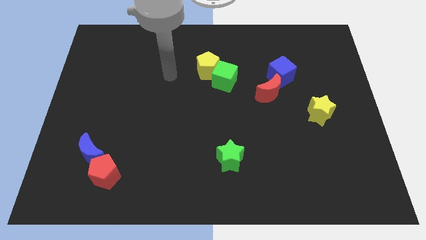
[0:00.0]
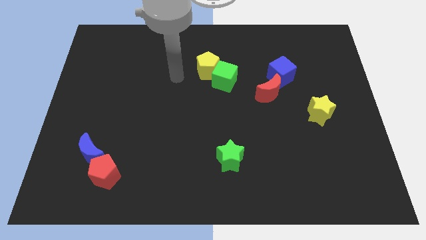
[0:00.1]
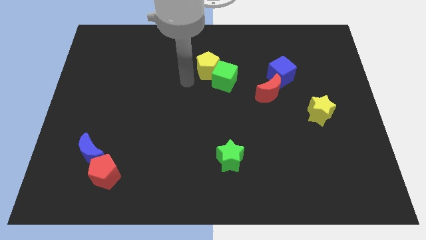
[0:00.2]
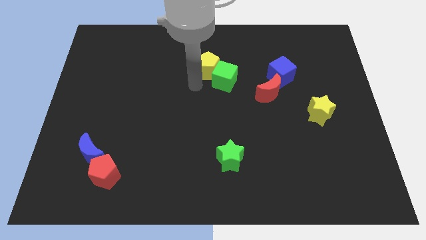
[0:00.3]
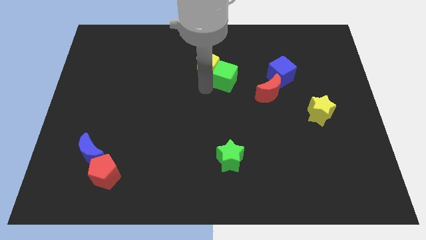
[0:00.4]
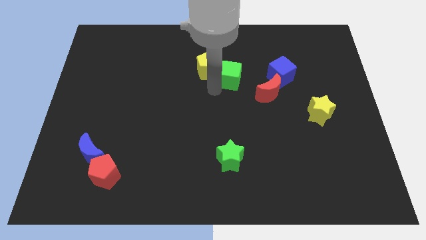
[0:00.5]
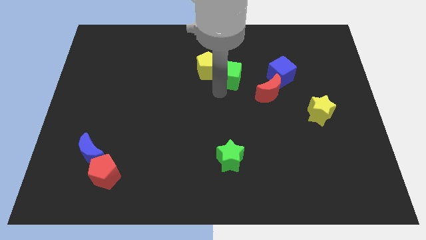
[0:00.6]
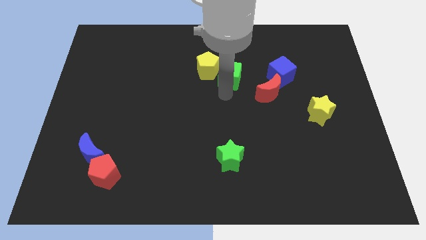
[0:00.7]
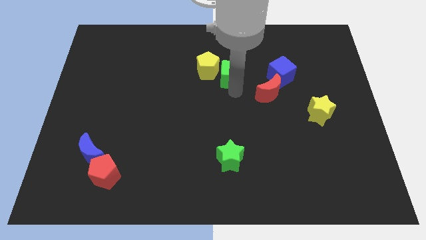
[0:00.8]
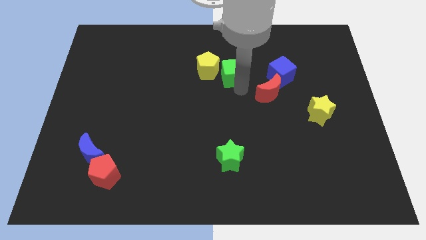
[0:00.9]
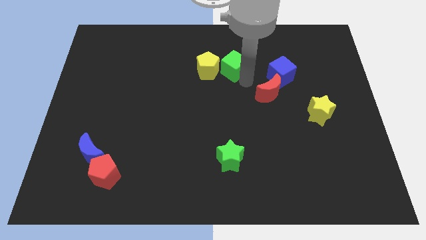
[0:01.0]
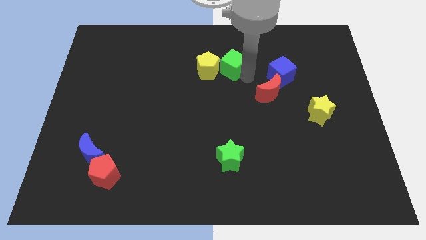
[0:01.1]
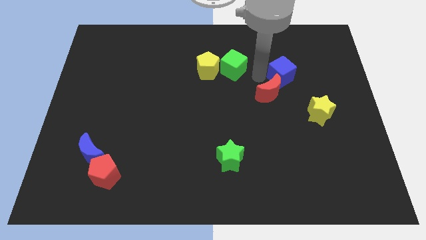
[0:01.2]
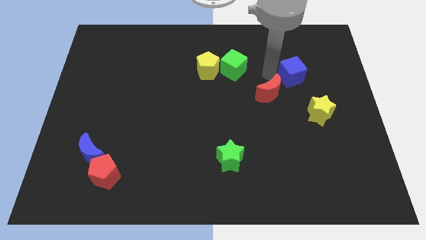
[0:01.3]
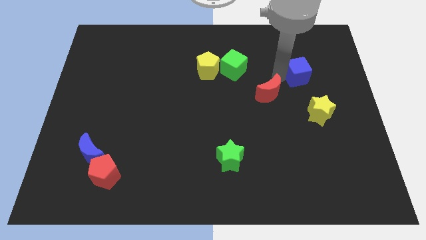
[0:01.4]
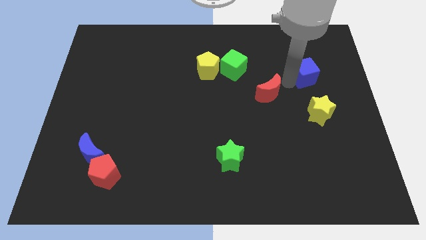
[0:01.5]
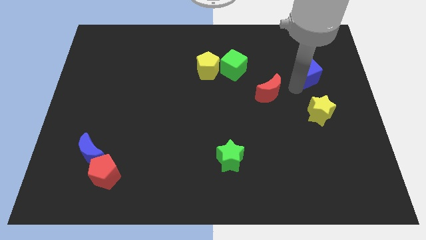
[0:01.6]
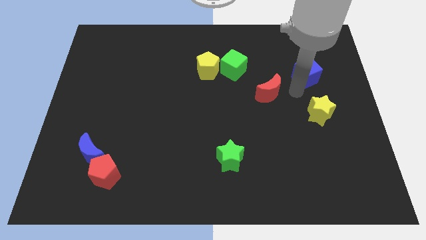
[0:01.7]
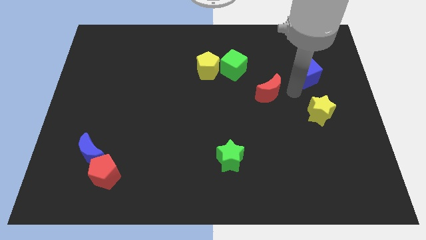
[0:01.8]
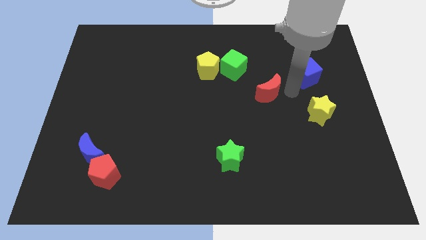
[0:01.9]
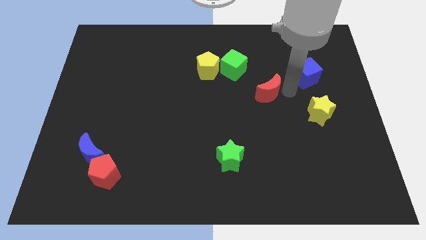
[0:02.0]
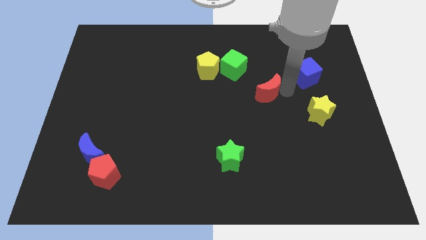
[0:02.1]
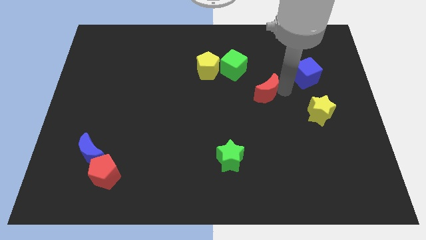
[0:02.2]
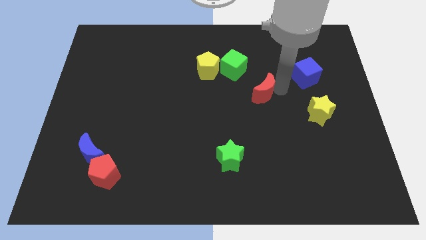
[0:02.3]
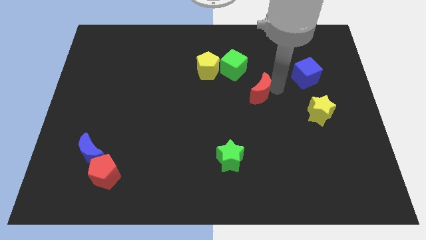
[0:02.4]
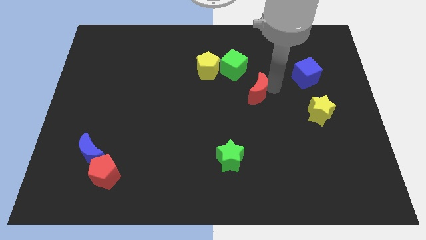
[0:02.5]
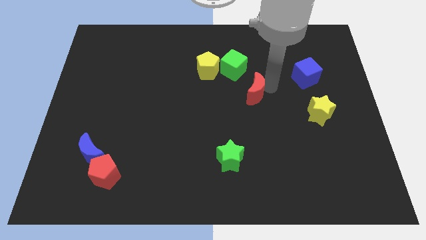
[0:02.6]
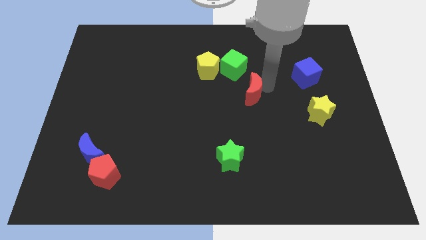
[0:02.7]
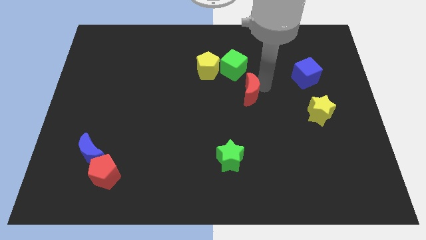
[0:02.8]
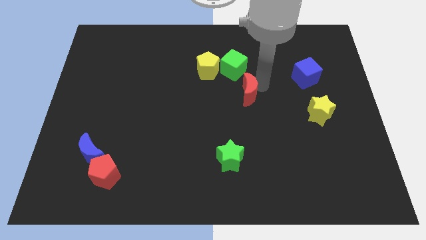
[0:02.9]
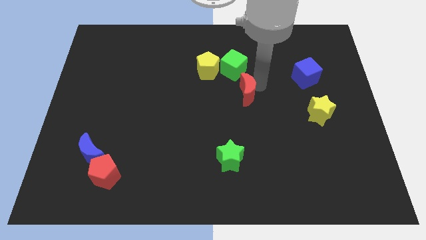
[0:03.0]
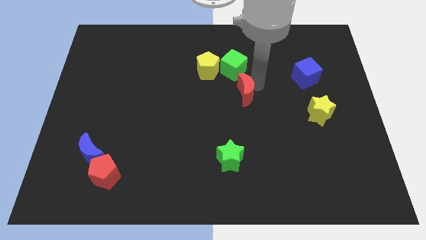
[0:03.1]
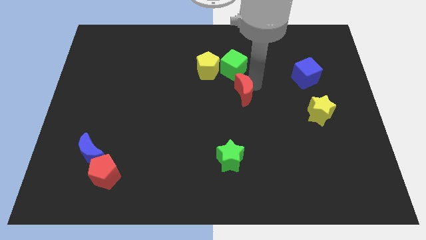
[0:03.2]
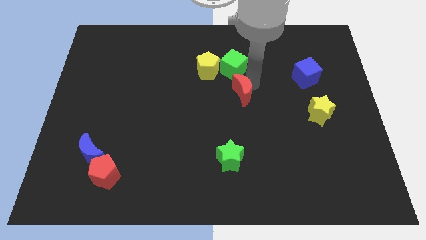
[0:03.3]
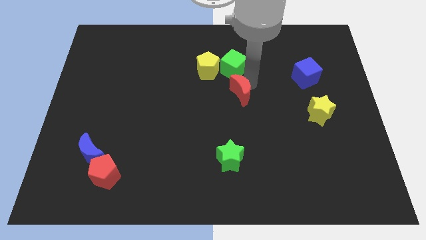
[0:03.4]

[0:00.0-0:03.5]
slightly move the red moon to the left

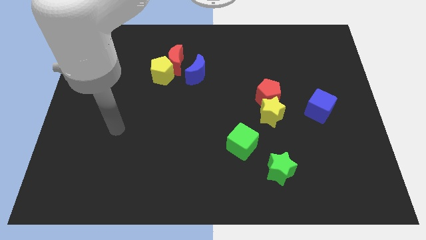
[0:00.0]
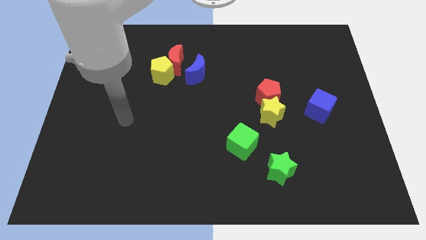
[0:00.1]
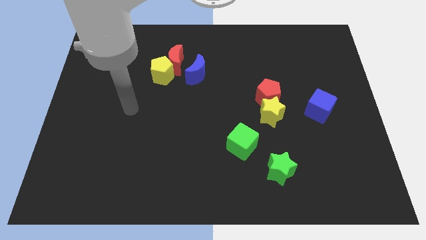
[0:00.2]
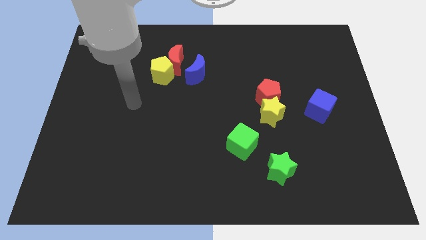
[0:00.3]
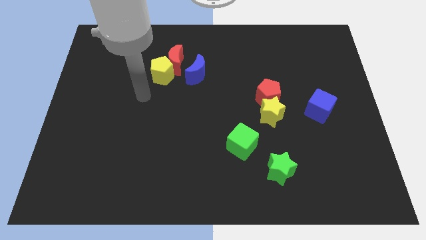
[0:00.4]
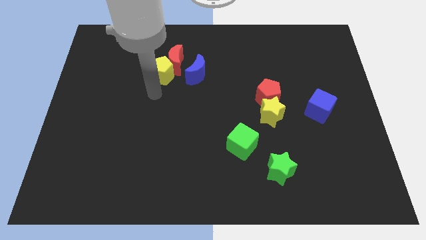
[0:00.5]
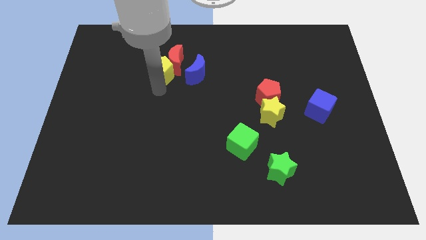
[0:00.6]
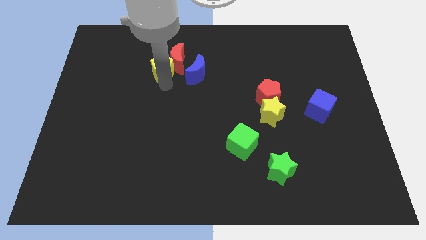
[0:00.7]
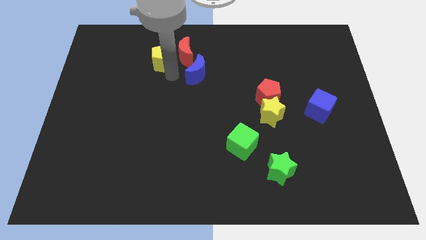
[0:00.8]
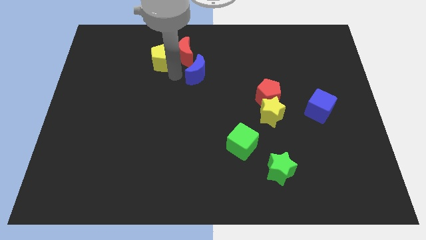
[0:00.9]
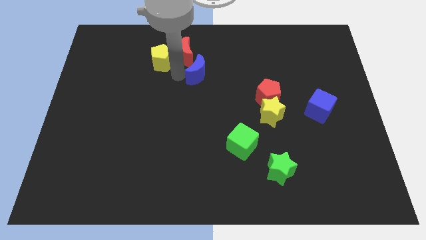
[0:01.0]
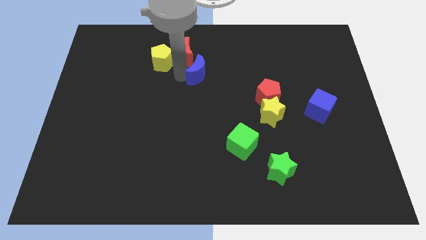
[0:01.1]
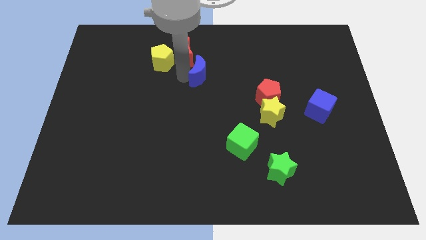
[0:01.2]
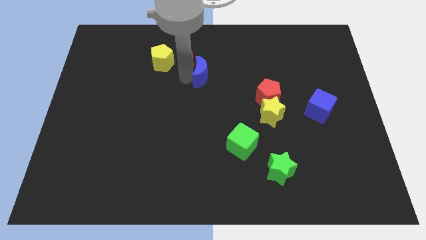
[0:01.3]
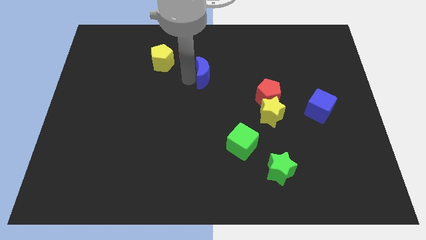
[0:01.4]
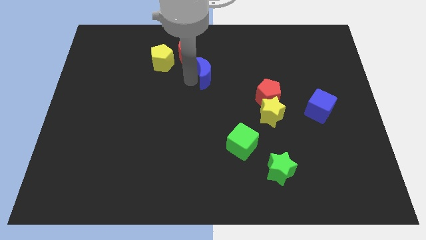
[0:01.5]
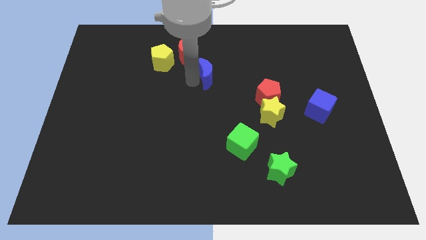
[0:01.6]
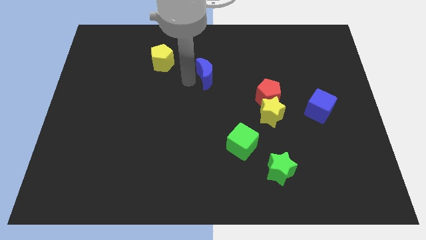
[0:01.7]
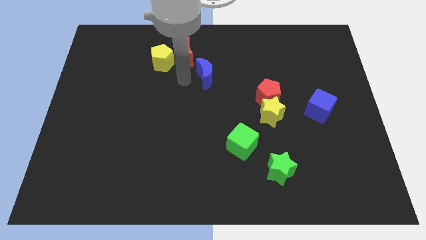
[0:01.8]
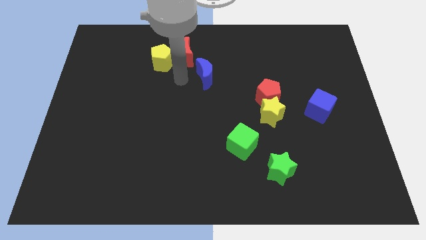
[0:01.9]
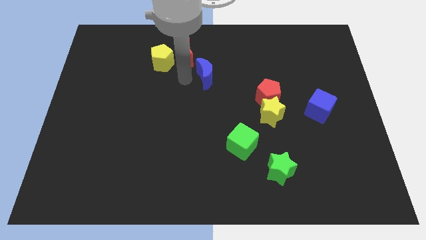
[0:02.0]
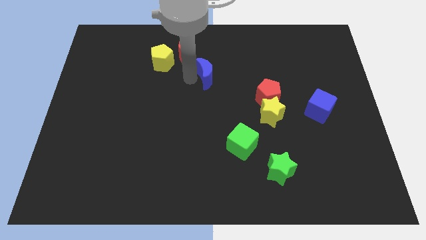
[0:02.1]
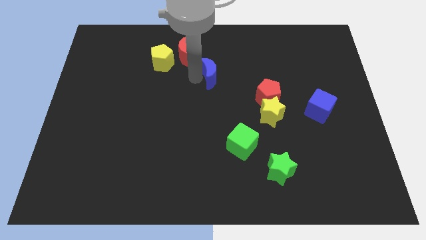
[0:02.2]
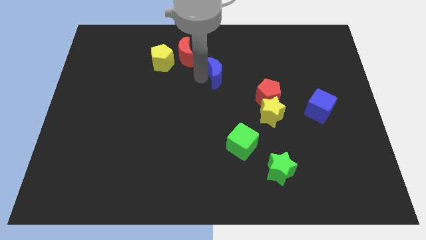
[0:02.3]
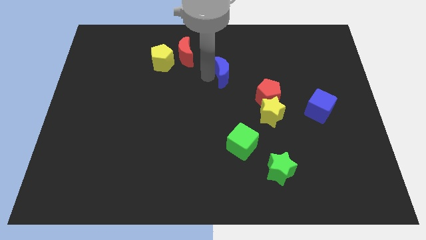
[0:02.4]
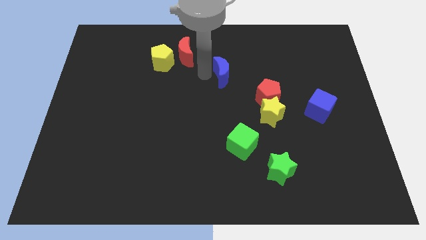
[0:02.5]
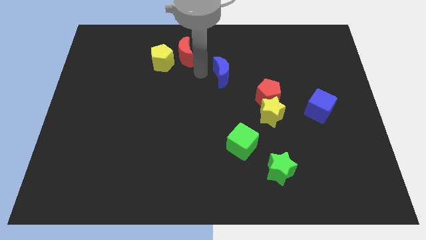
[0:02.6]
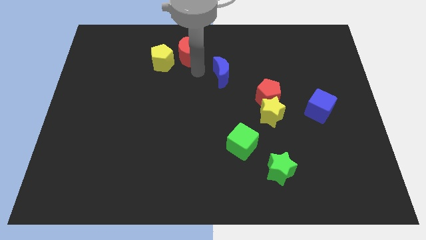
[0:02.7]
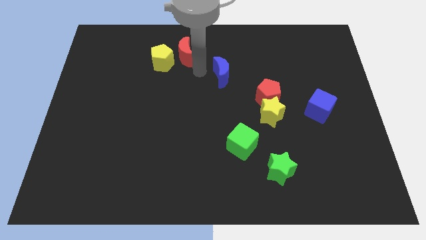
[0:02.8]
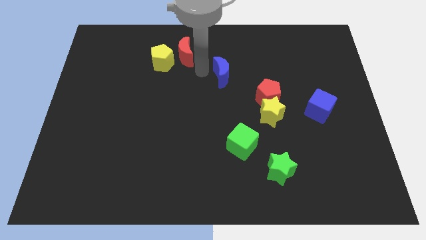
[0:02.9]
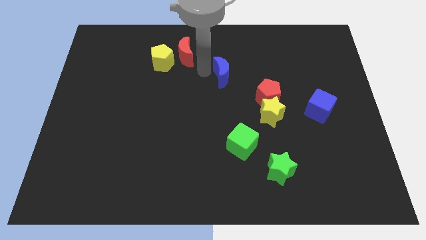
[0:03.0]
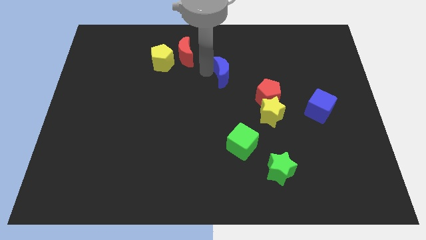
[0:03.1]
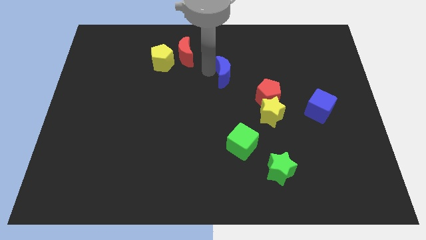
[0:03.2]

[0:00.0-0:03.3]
push the blue moon a bit to the right

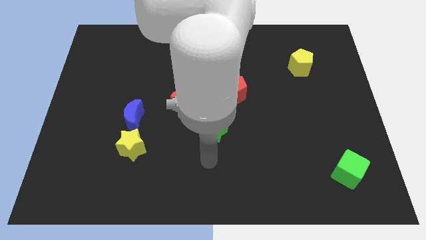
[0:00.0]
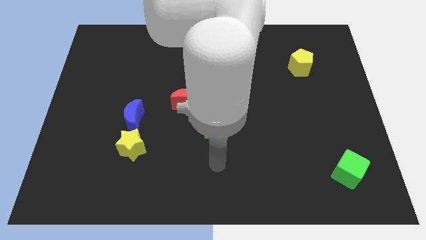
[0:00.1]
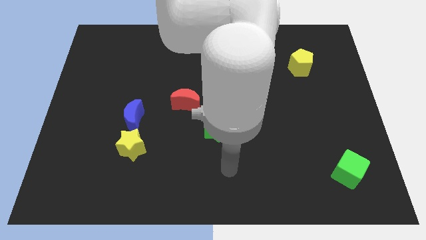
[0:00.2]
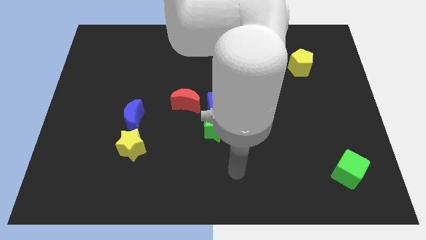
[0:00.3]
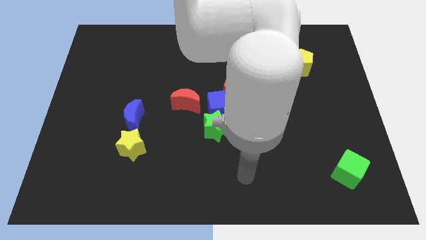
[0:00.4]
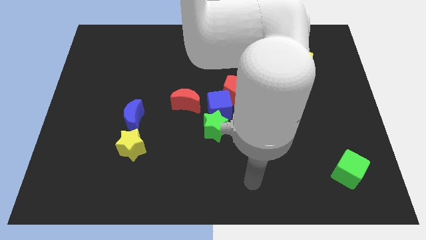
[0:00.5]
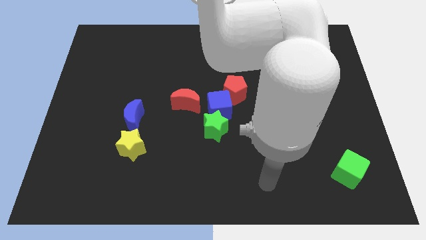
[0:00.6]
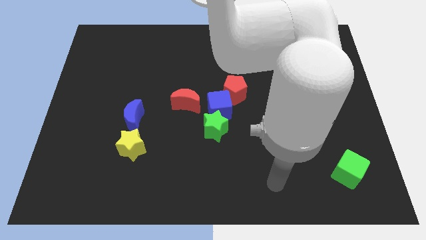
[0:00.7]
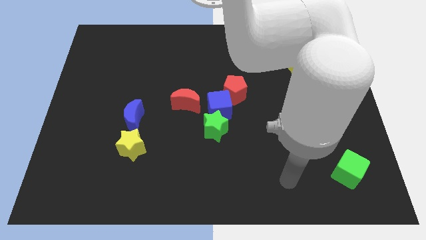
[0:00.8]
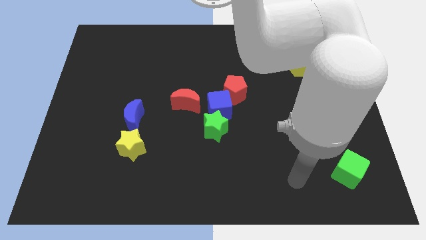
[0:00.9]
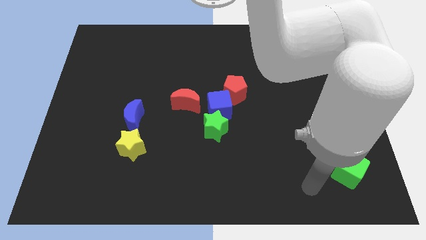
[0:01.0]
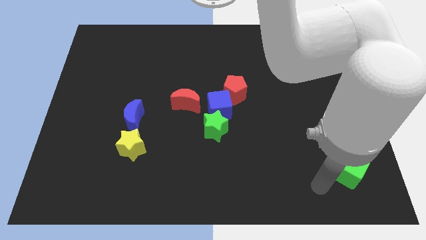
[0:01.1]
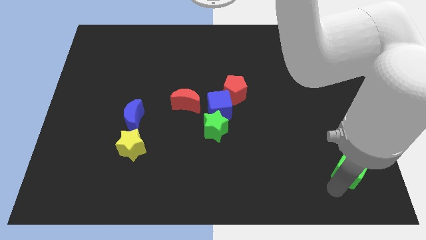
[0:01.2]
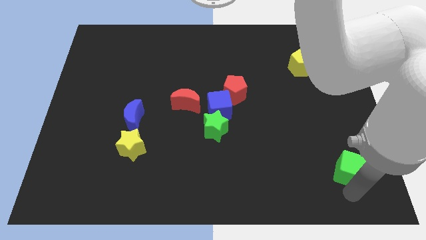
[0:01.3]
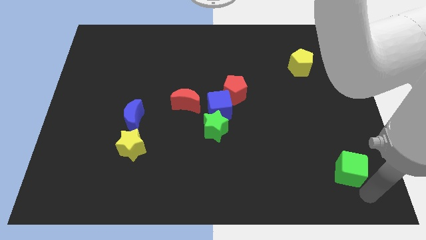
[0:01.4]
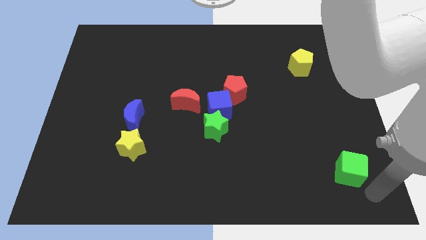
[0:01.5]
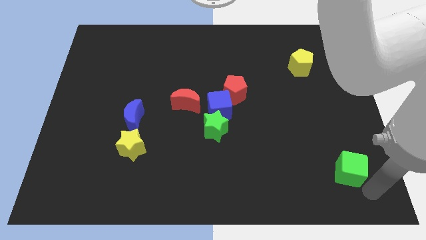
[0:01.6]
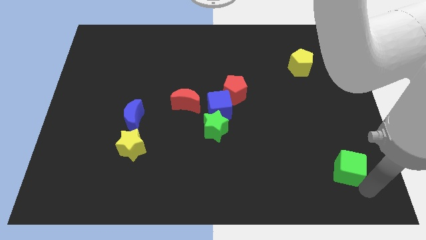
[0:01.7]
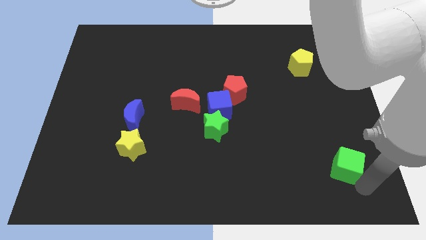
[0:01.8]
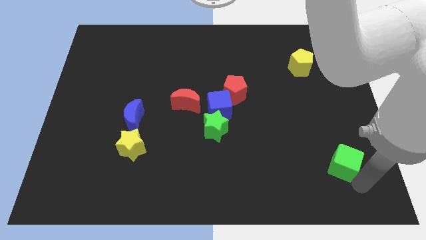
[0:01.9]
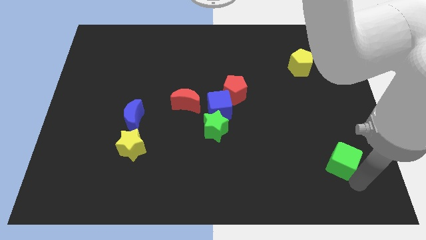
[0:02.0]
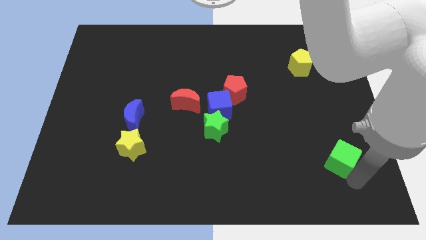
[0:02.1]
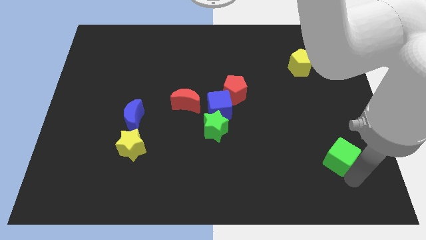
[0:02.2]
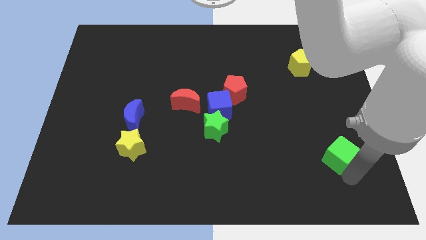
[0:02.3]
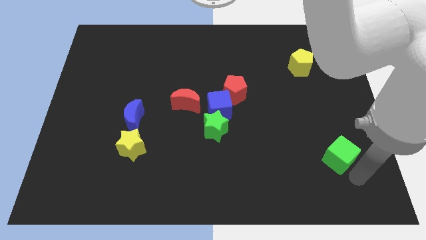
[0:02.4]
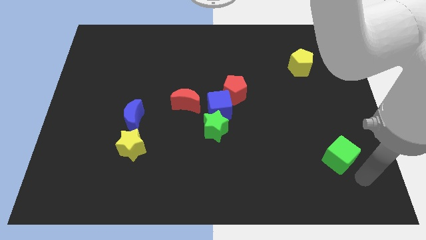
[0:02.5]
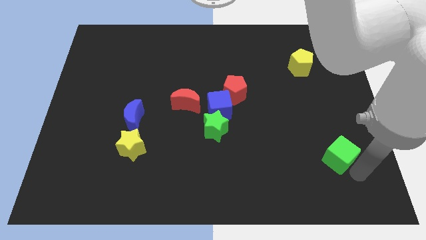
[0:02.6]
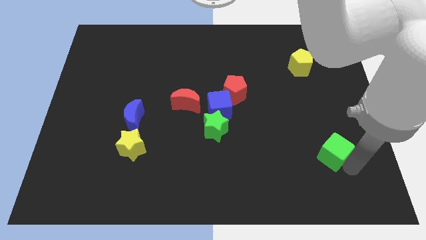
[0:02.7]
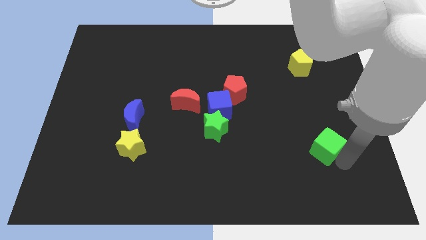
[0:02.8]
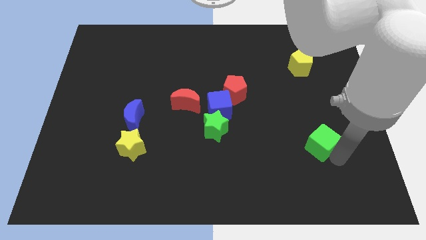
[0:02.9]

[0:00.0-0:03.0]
slide the green cube upwards and then left somewhat
